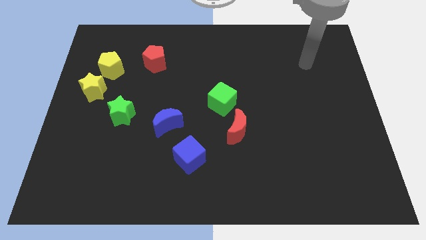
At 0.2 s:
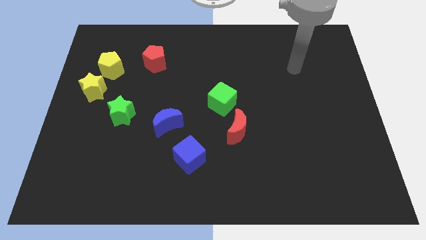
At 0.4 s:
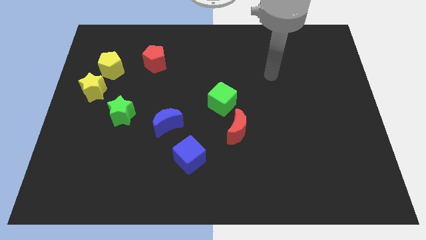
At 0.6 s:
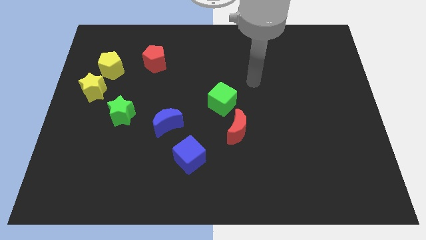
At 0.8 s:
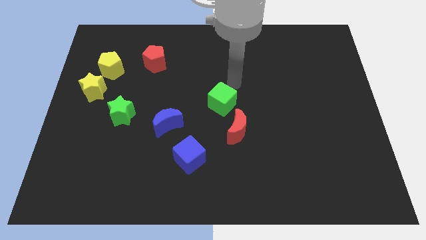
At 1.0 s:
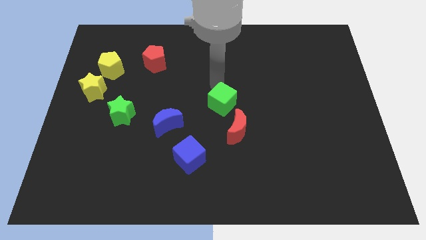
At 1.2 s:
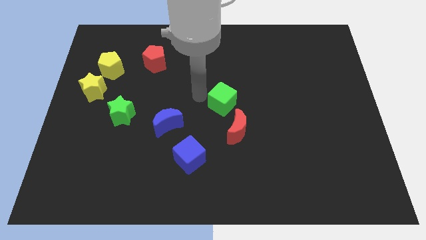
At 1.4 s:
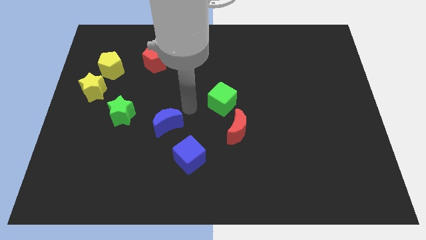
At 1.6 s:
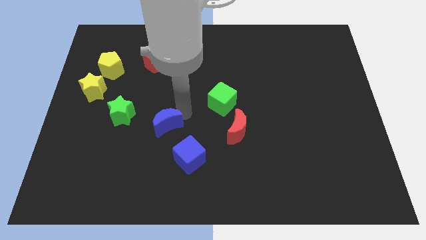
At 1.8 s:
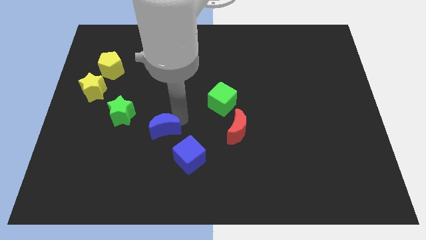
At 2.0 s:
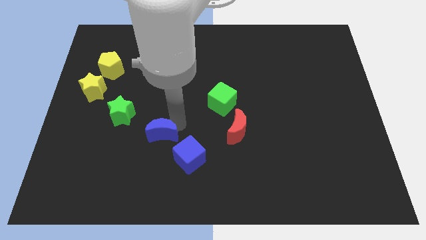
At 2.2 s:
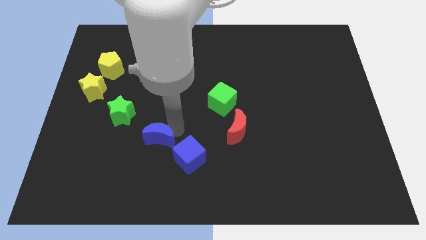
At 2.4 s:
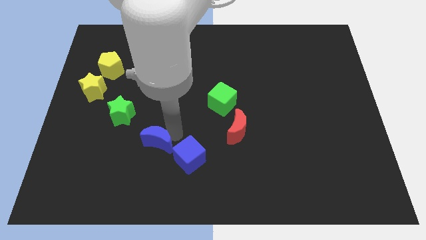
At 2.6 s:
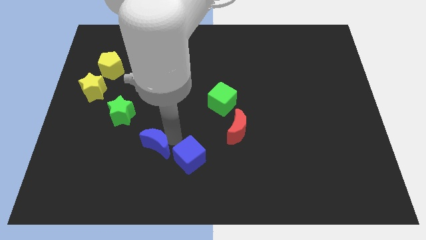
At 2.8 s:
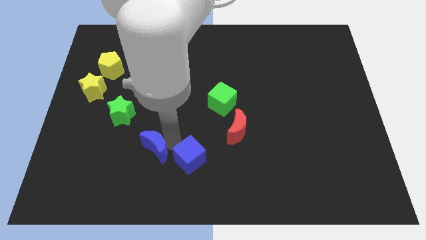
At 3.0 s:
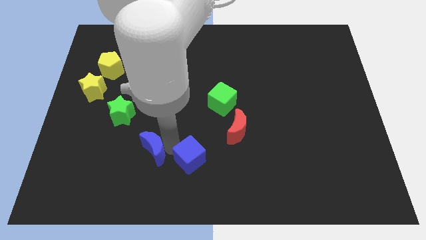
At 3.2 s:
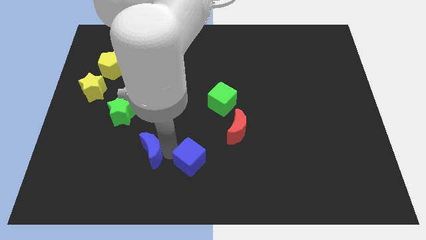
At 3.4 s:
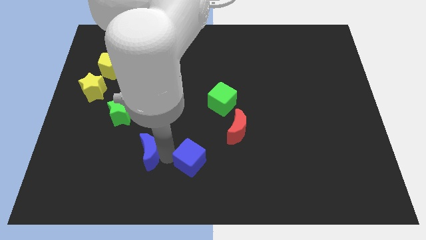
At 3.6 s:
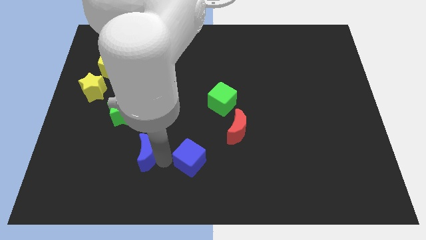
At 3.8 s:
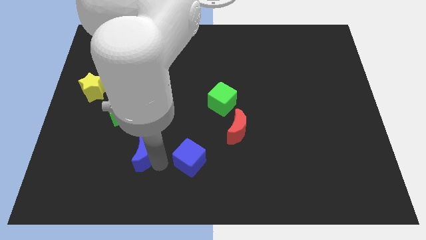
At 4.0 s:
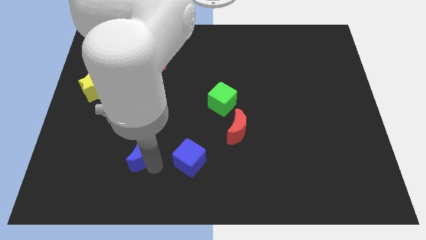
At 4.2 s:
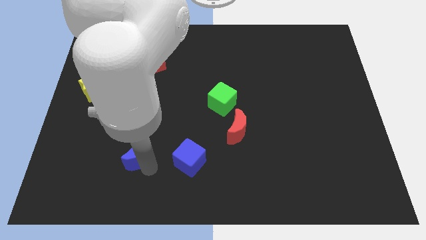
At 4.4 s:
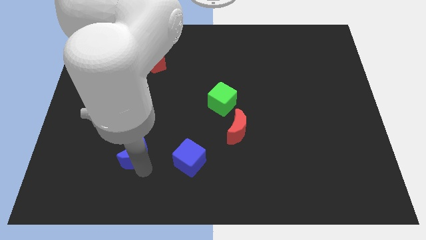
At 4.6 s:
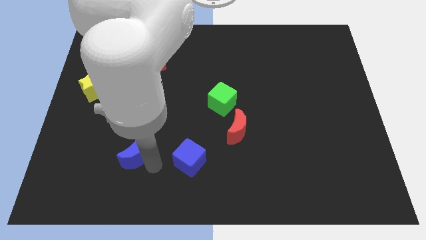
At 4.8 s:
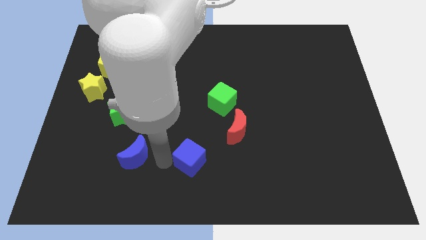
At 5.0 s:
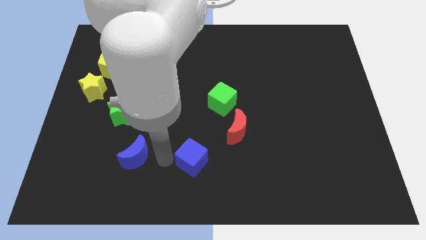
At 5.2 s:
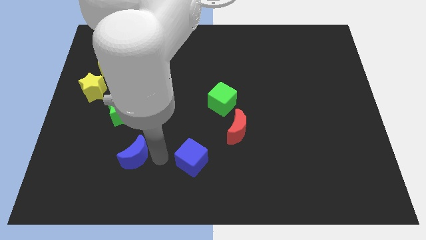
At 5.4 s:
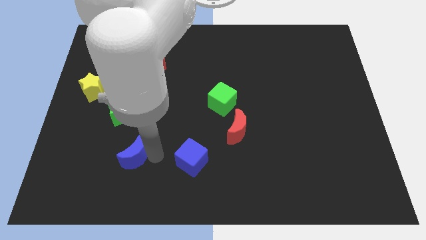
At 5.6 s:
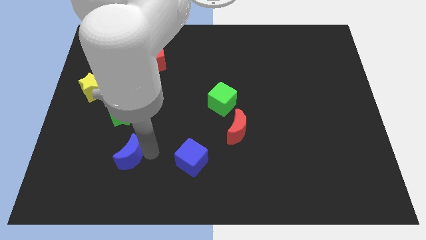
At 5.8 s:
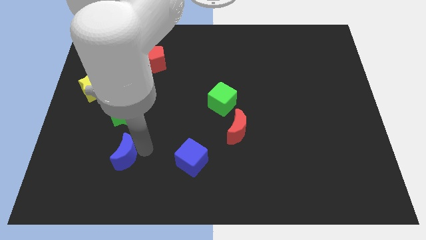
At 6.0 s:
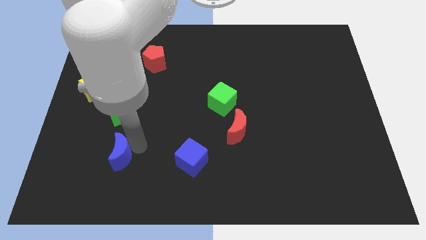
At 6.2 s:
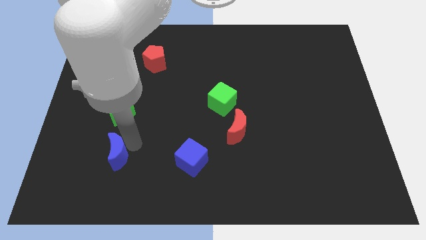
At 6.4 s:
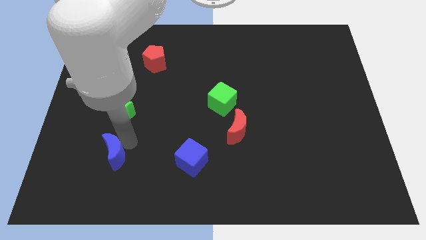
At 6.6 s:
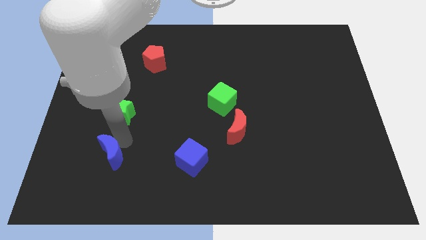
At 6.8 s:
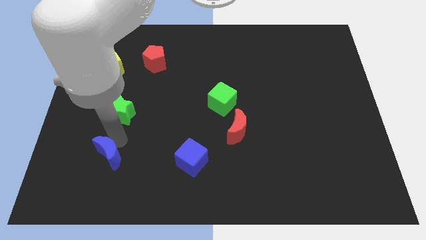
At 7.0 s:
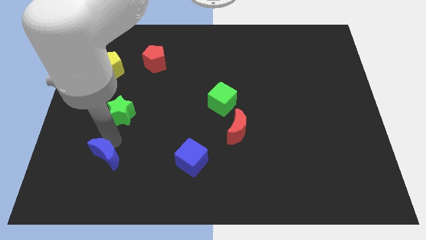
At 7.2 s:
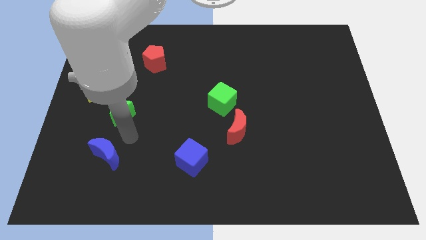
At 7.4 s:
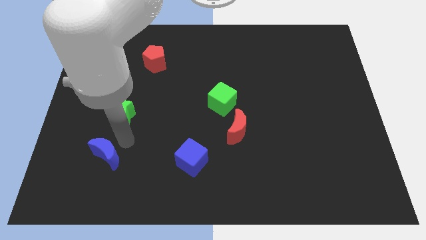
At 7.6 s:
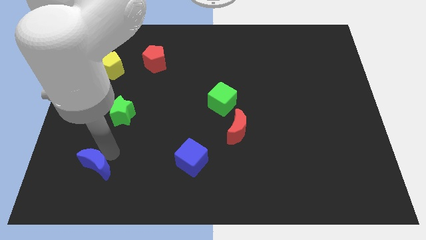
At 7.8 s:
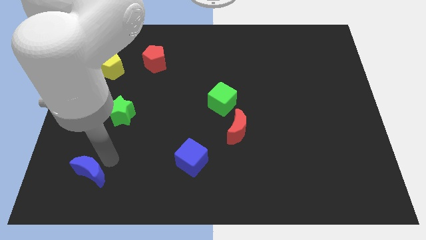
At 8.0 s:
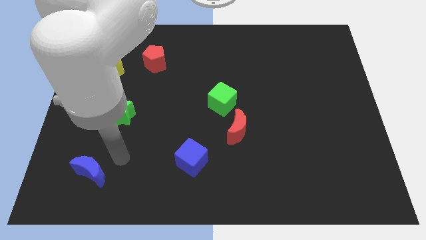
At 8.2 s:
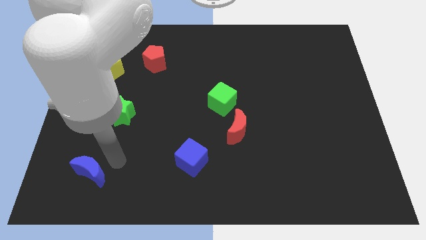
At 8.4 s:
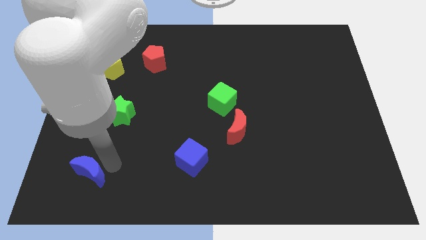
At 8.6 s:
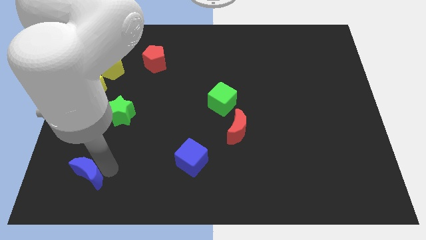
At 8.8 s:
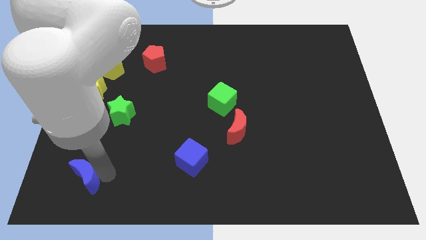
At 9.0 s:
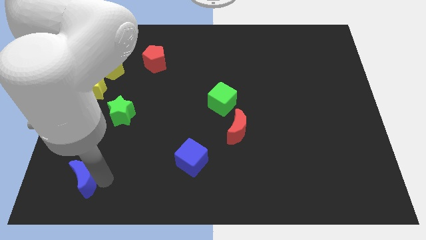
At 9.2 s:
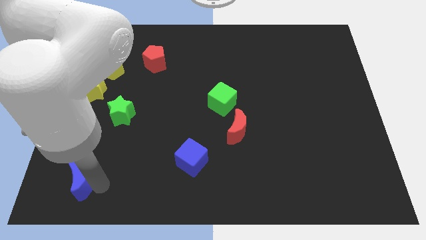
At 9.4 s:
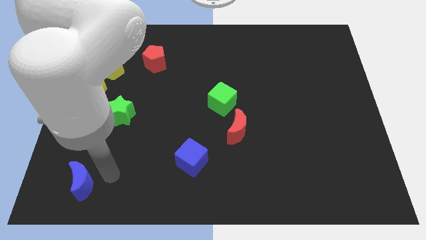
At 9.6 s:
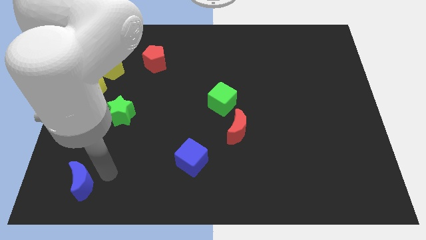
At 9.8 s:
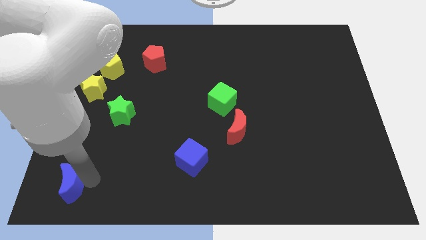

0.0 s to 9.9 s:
move the blue moon to the lower left corner

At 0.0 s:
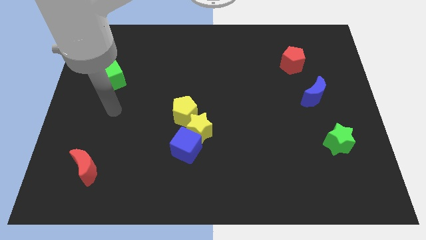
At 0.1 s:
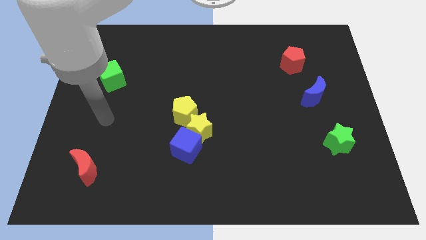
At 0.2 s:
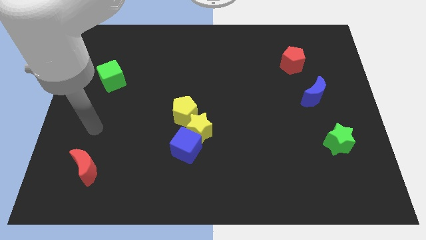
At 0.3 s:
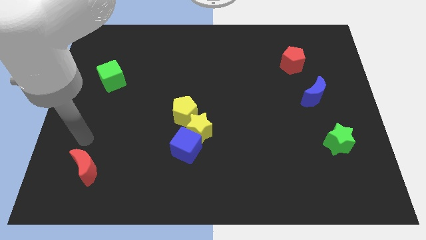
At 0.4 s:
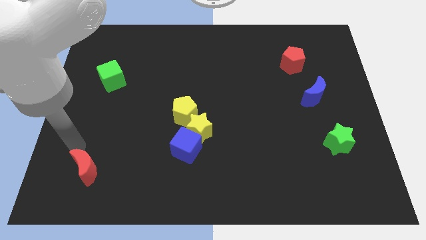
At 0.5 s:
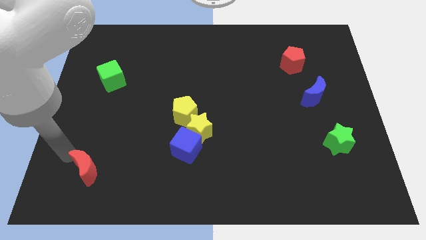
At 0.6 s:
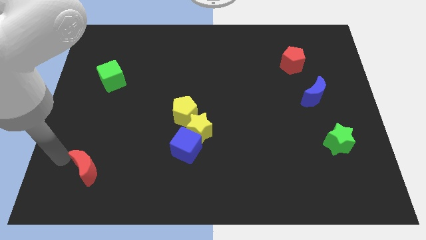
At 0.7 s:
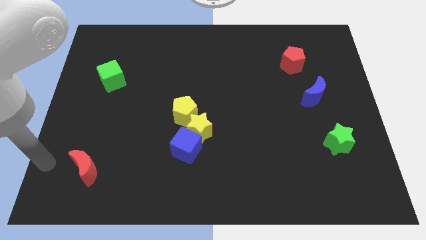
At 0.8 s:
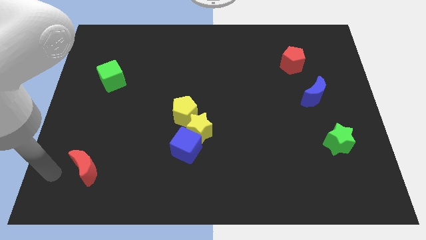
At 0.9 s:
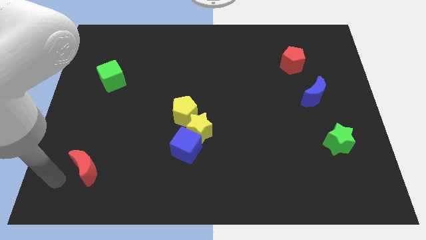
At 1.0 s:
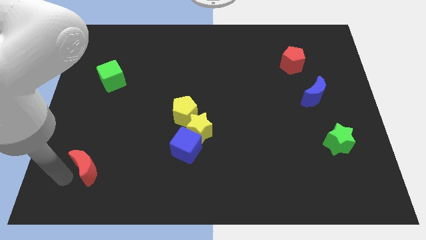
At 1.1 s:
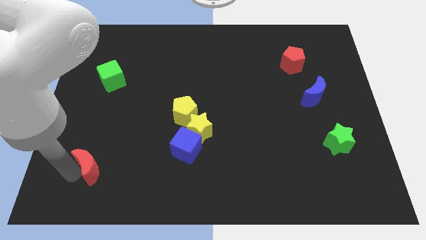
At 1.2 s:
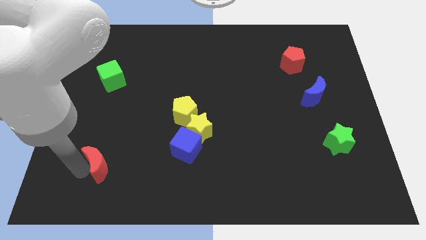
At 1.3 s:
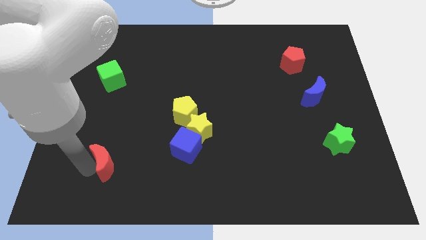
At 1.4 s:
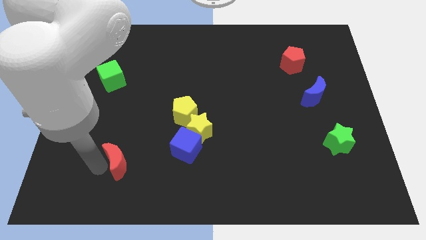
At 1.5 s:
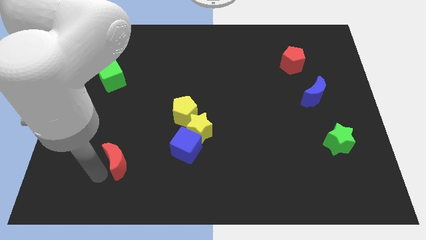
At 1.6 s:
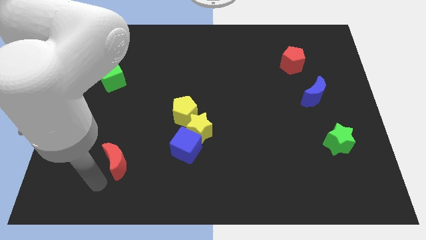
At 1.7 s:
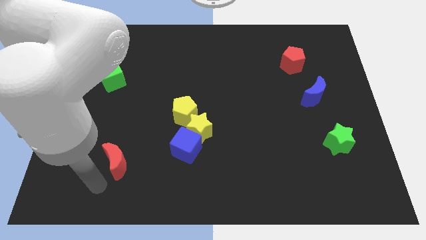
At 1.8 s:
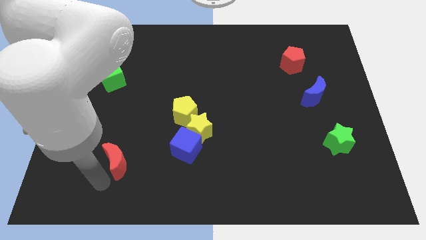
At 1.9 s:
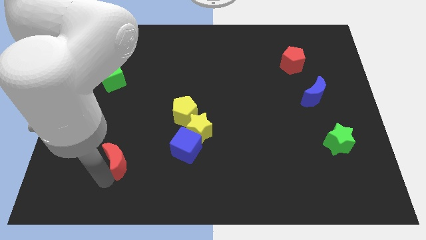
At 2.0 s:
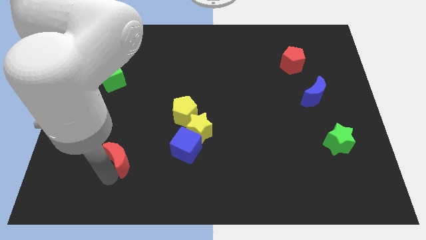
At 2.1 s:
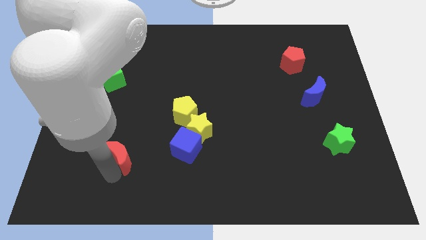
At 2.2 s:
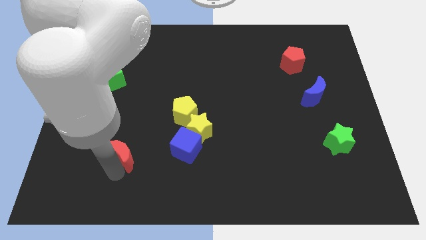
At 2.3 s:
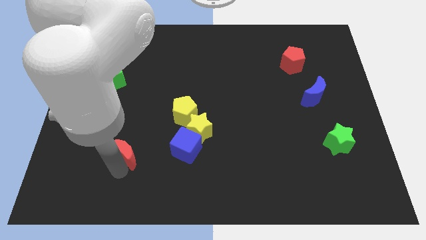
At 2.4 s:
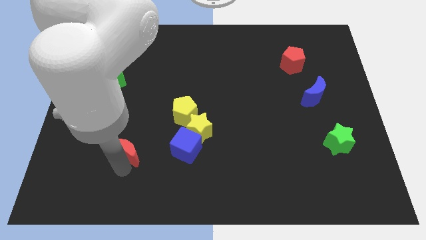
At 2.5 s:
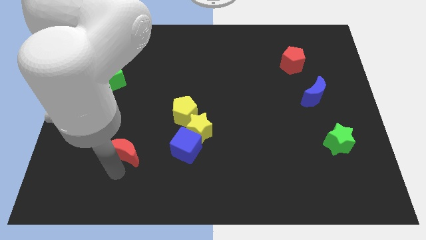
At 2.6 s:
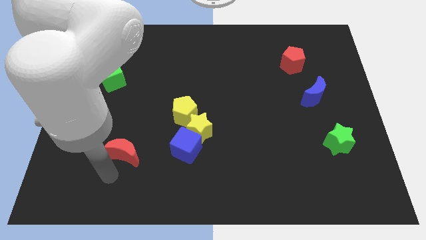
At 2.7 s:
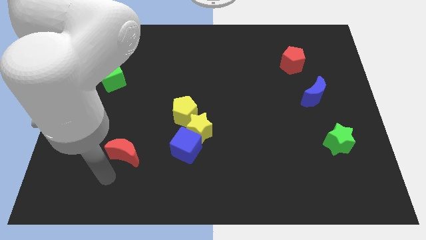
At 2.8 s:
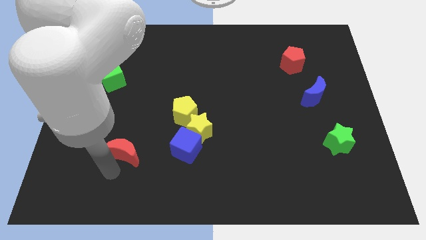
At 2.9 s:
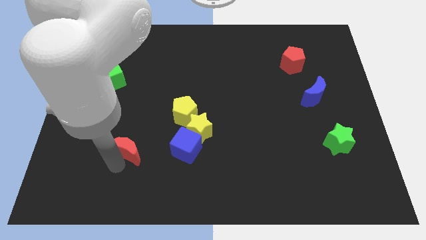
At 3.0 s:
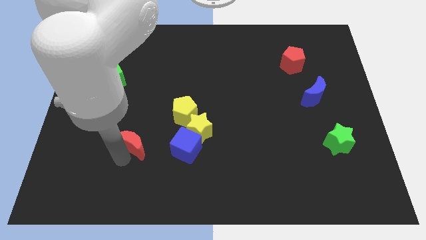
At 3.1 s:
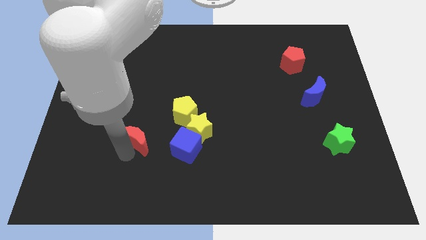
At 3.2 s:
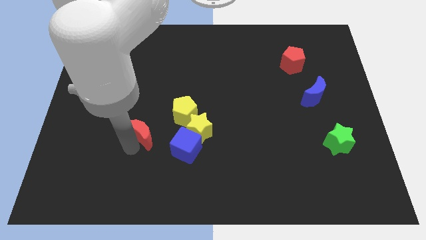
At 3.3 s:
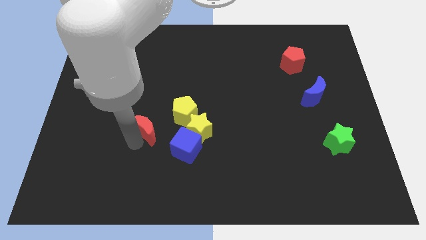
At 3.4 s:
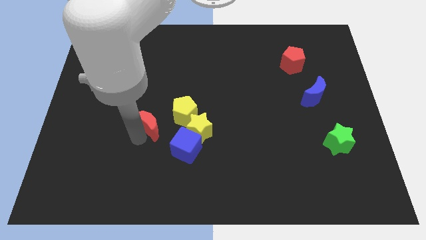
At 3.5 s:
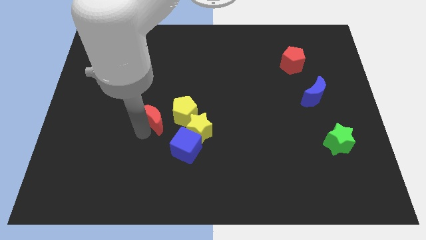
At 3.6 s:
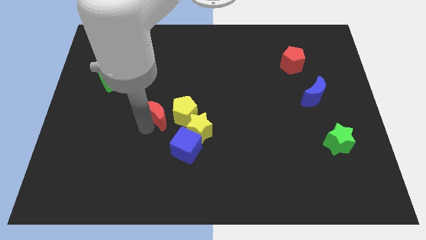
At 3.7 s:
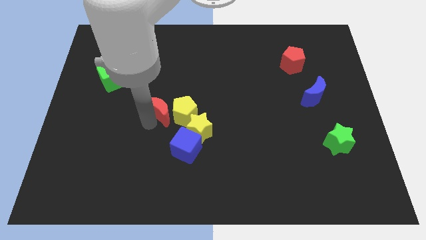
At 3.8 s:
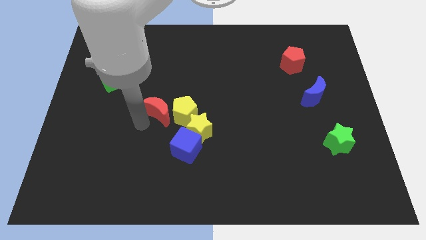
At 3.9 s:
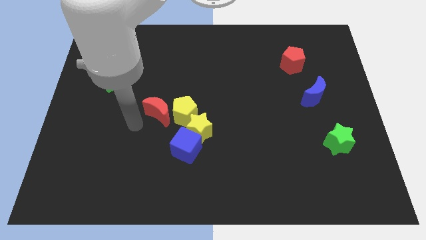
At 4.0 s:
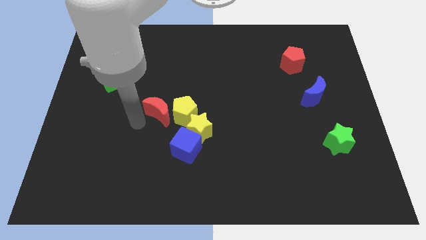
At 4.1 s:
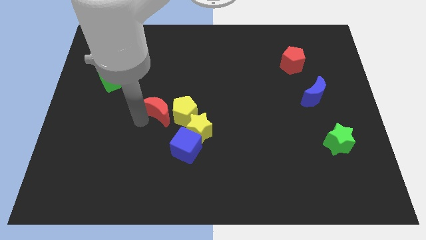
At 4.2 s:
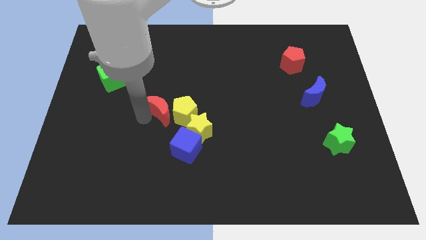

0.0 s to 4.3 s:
push the red moon to the middle
